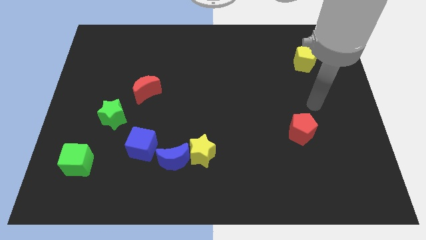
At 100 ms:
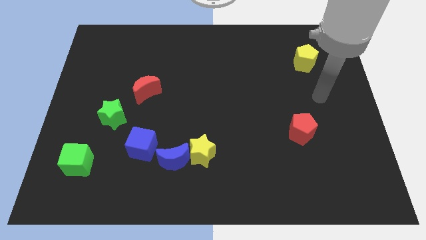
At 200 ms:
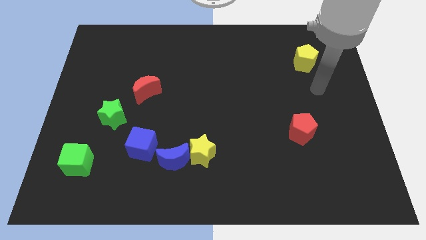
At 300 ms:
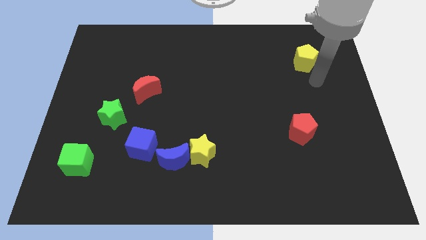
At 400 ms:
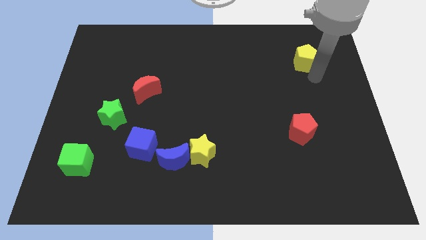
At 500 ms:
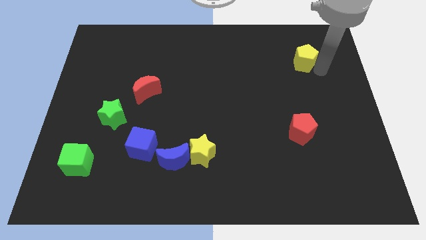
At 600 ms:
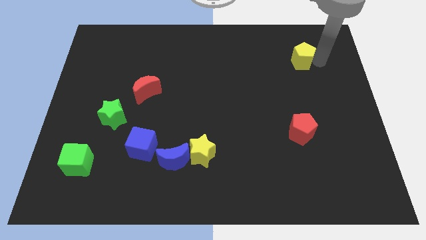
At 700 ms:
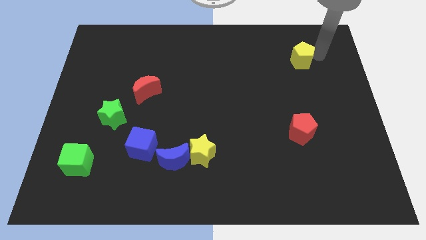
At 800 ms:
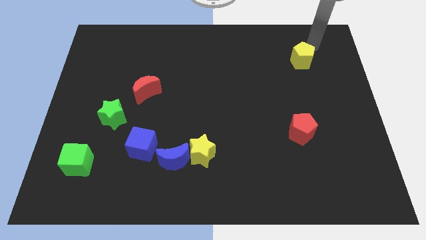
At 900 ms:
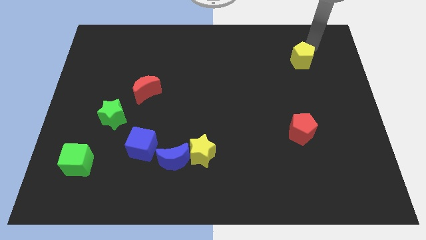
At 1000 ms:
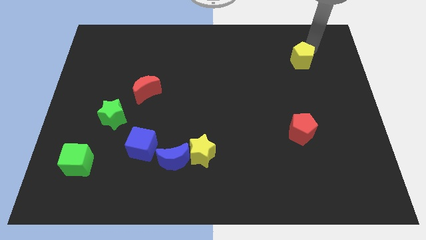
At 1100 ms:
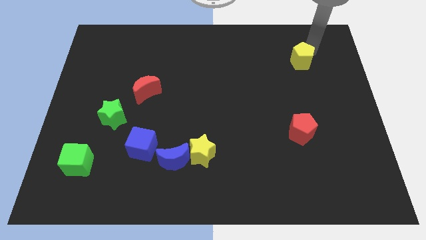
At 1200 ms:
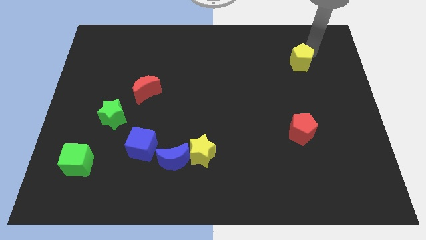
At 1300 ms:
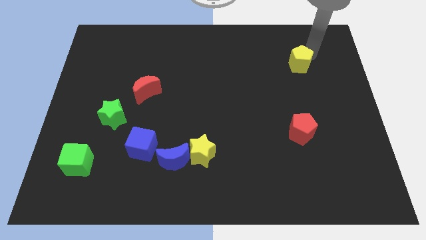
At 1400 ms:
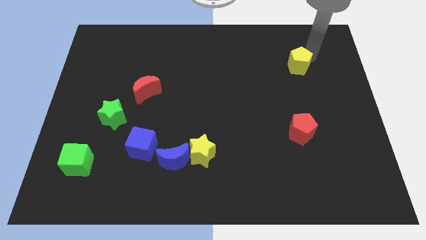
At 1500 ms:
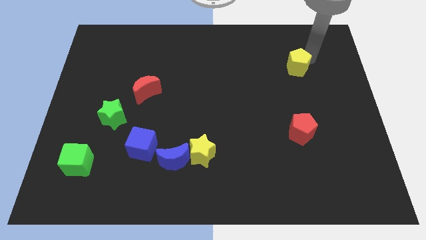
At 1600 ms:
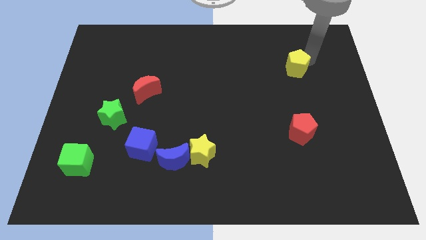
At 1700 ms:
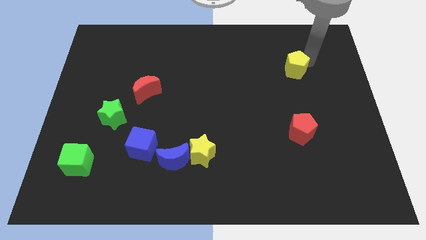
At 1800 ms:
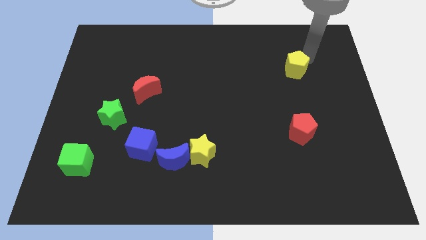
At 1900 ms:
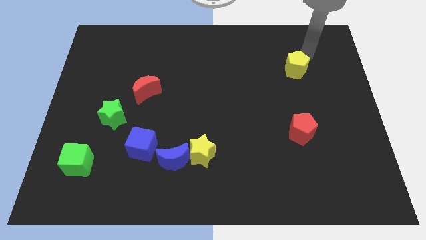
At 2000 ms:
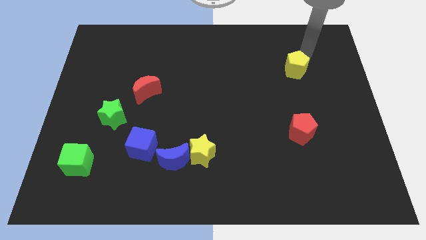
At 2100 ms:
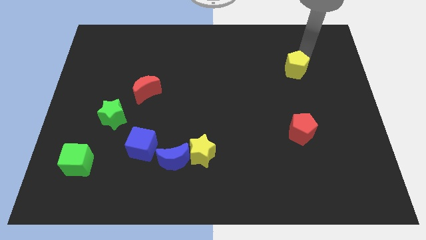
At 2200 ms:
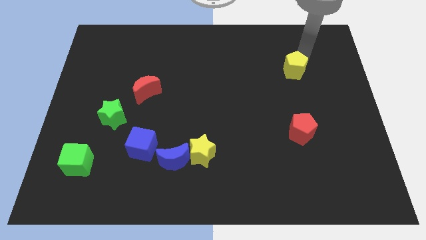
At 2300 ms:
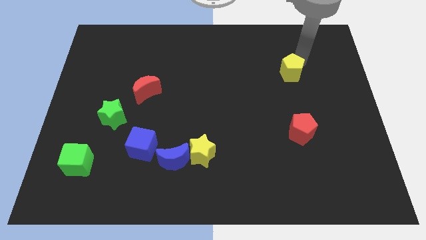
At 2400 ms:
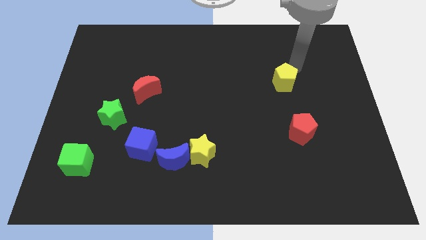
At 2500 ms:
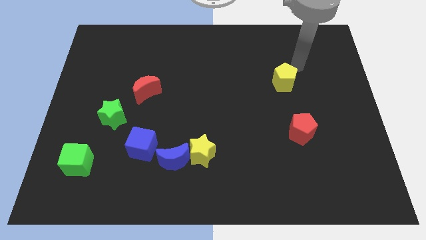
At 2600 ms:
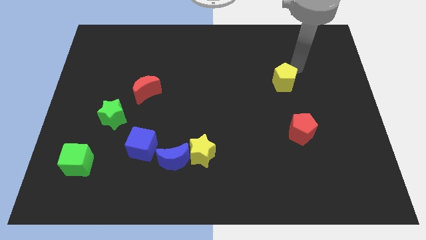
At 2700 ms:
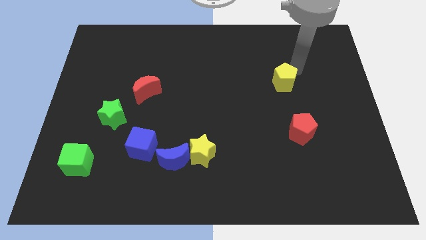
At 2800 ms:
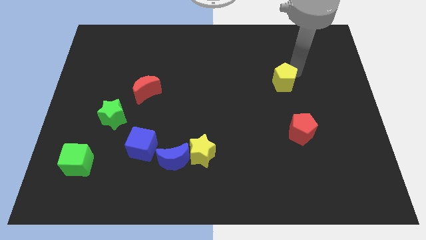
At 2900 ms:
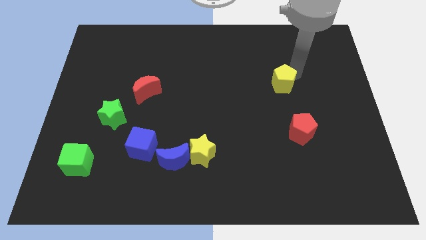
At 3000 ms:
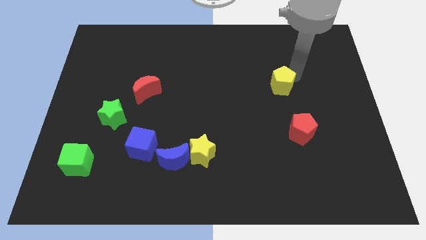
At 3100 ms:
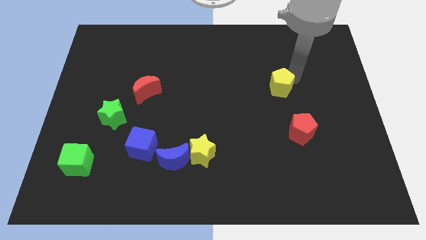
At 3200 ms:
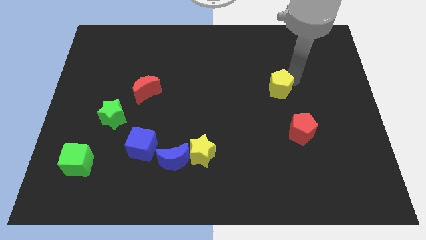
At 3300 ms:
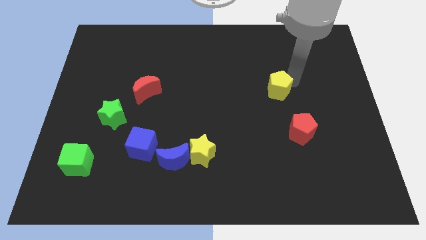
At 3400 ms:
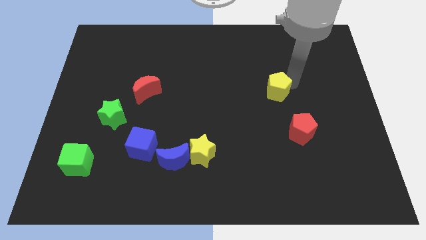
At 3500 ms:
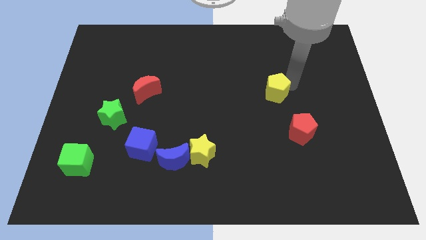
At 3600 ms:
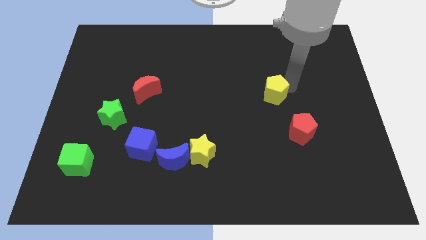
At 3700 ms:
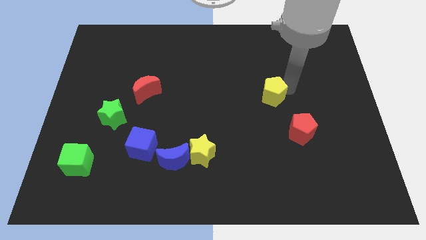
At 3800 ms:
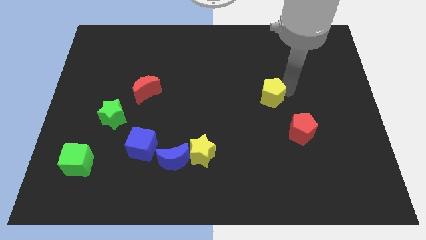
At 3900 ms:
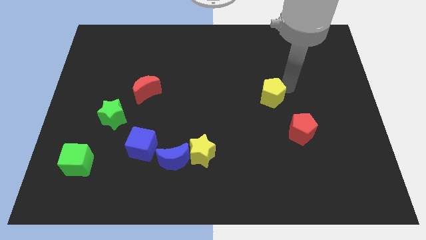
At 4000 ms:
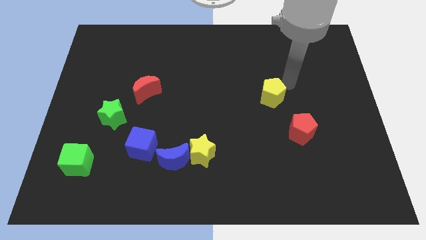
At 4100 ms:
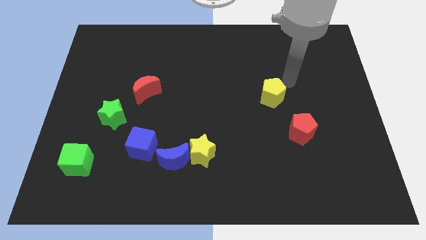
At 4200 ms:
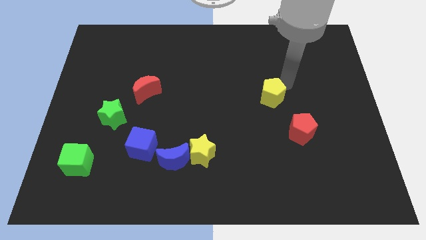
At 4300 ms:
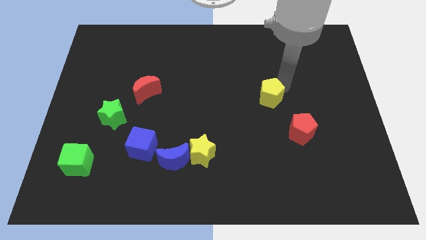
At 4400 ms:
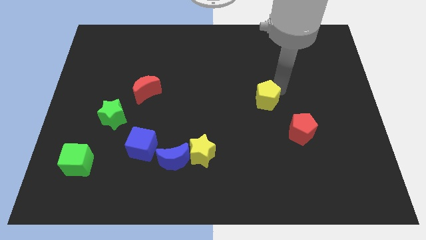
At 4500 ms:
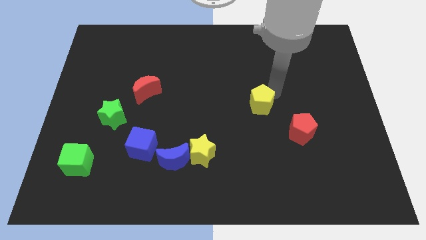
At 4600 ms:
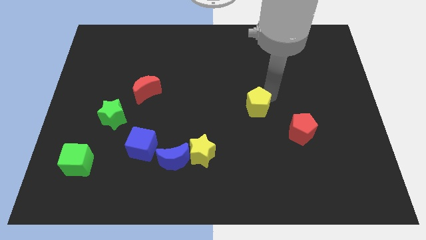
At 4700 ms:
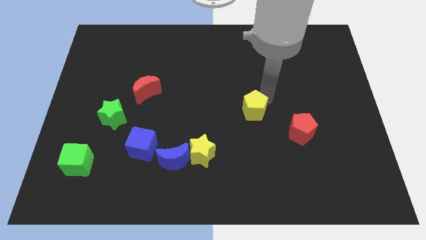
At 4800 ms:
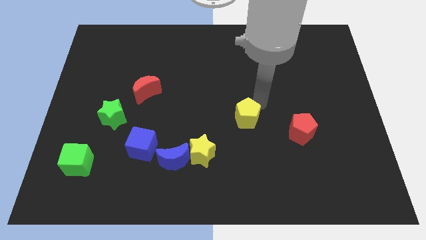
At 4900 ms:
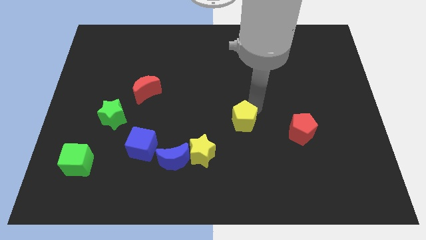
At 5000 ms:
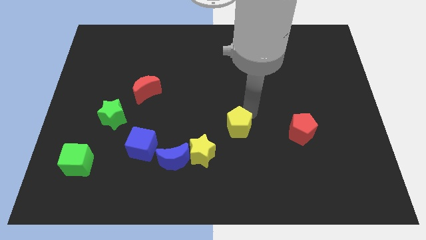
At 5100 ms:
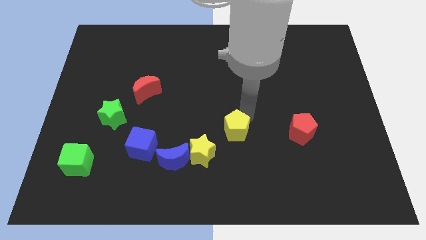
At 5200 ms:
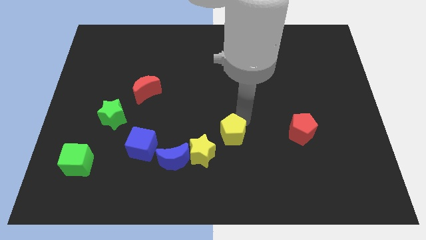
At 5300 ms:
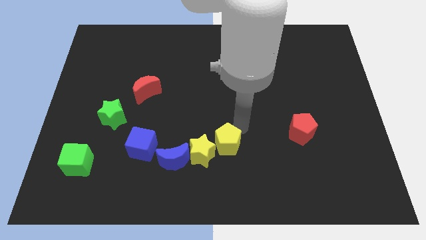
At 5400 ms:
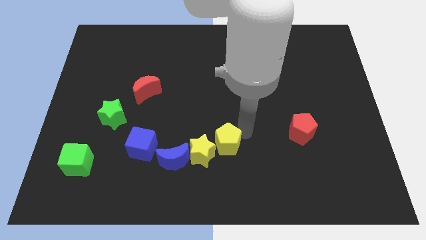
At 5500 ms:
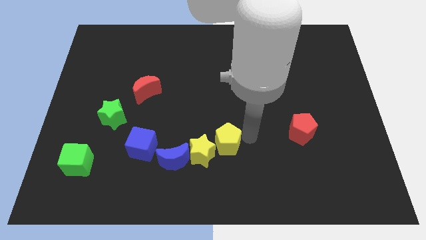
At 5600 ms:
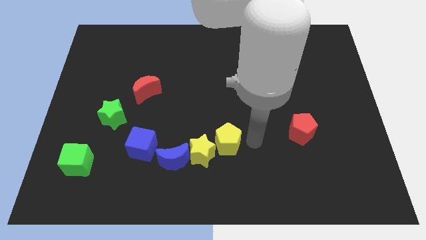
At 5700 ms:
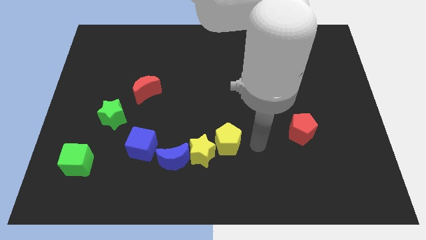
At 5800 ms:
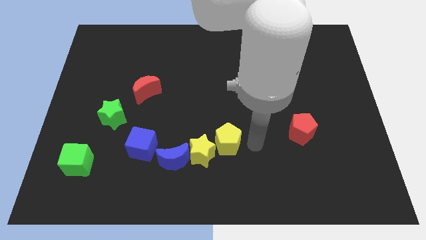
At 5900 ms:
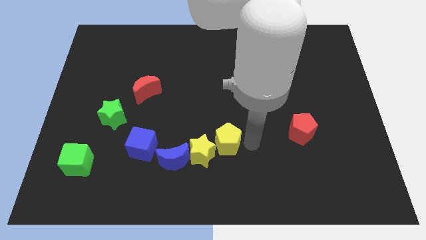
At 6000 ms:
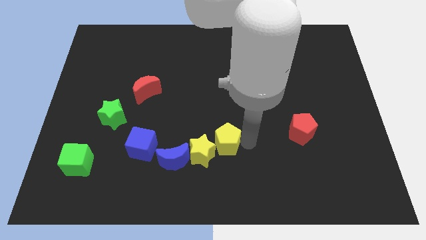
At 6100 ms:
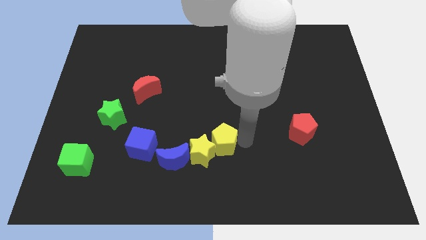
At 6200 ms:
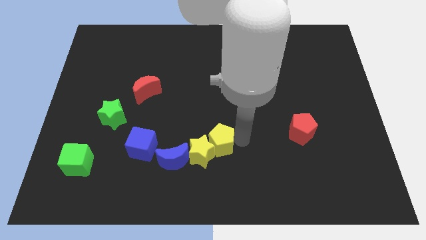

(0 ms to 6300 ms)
put the yellow pentagon diagonally up and to the right of the blue moon

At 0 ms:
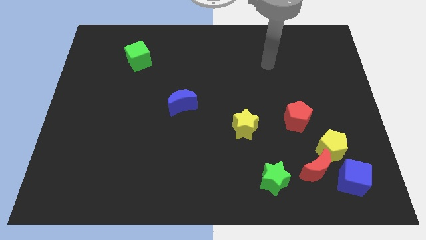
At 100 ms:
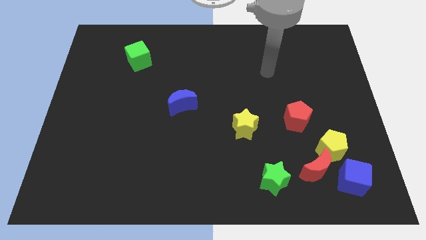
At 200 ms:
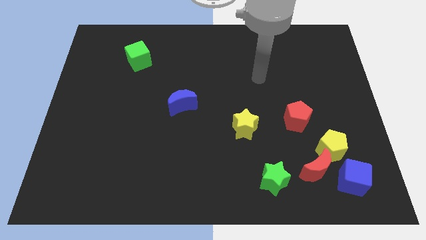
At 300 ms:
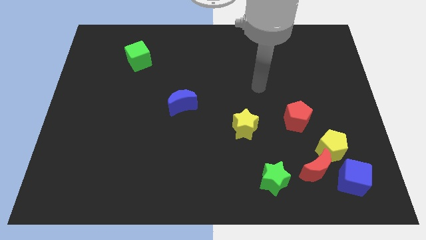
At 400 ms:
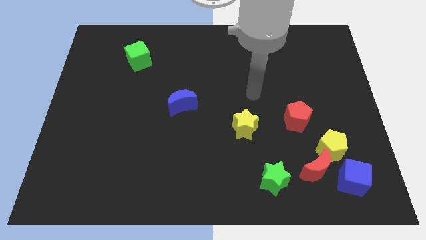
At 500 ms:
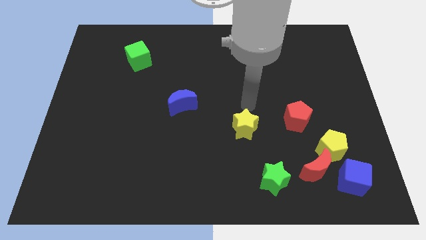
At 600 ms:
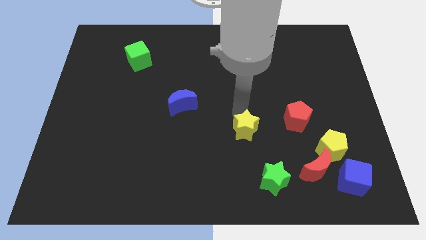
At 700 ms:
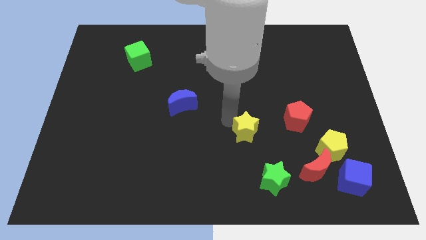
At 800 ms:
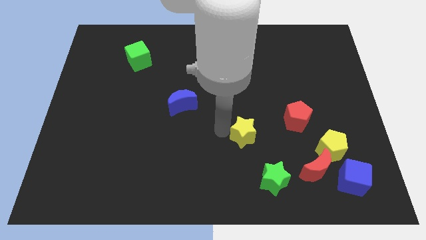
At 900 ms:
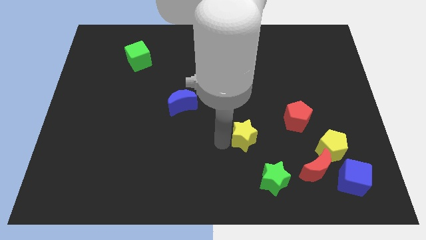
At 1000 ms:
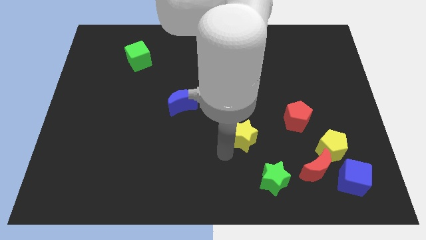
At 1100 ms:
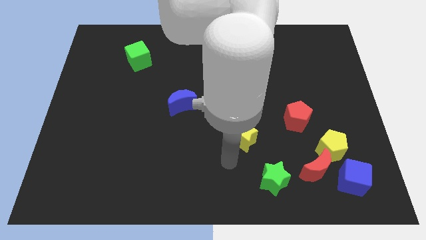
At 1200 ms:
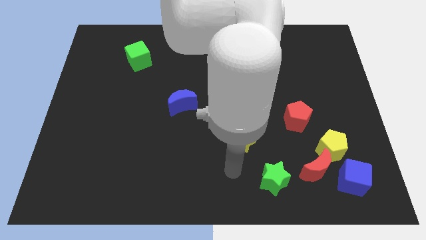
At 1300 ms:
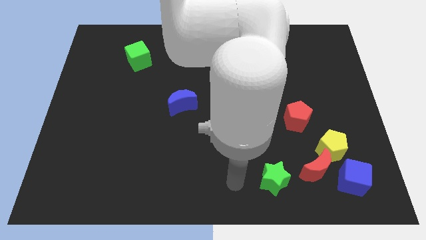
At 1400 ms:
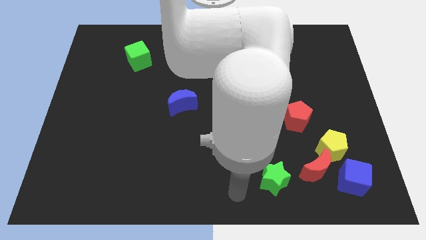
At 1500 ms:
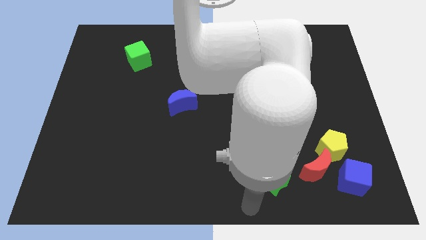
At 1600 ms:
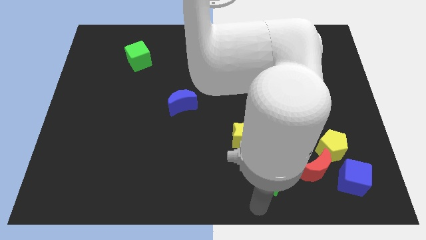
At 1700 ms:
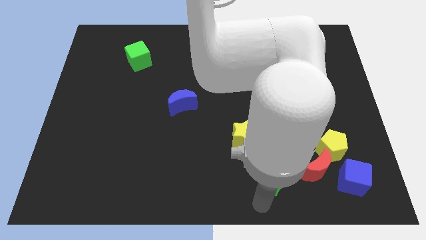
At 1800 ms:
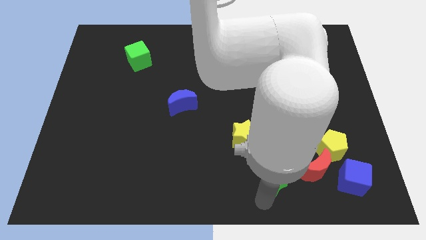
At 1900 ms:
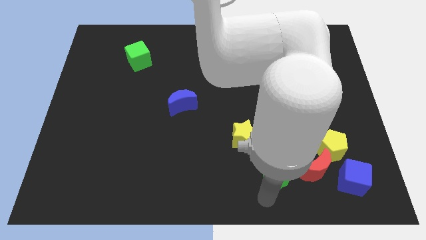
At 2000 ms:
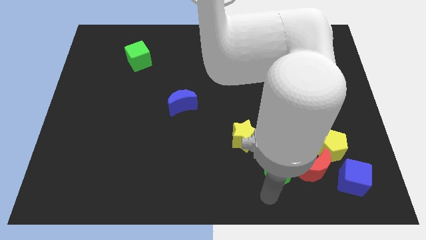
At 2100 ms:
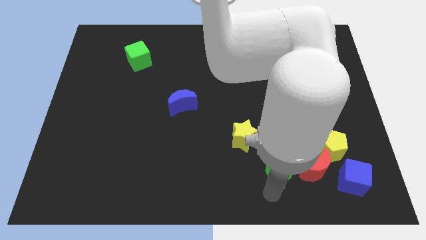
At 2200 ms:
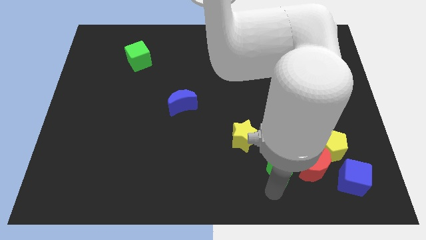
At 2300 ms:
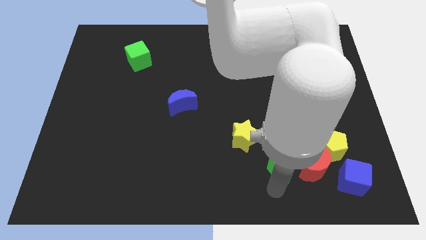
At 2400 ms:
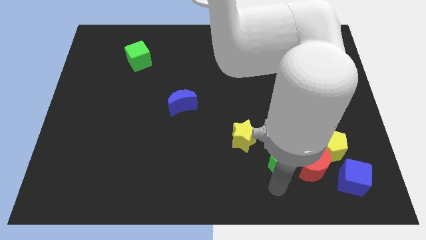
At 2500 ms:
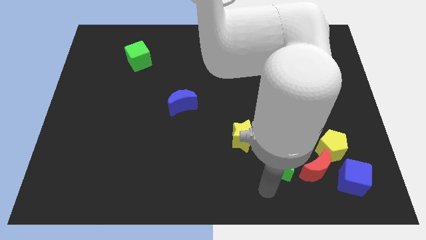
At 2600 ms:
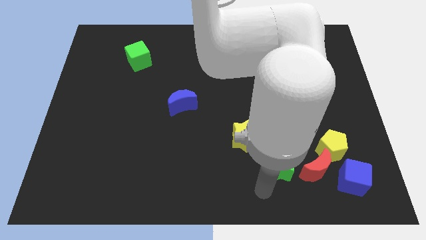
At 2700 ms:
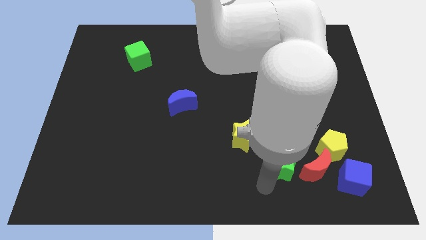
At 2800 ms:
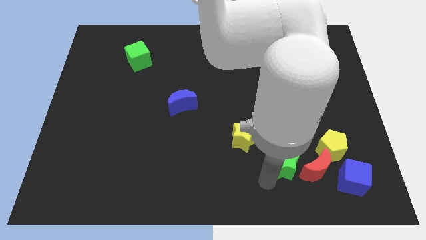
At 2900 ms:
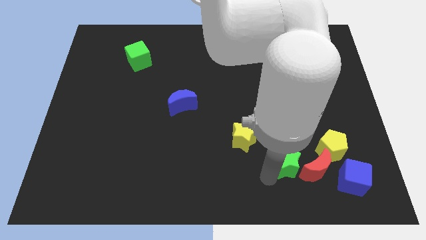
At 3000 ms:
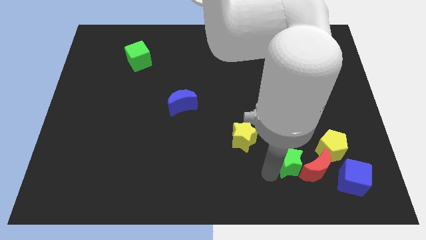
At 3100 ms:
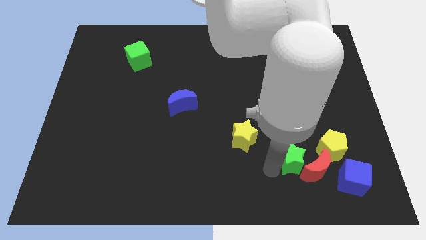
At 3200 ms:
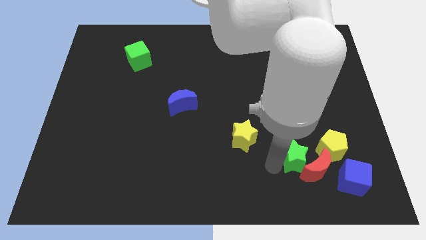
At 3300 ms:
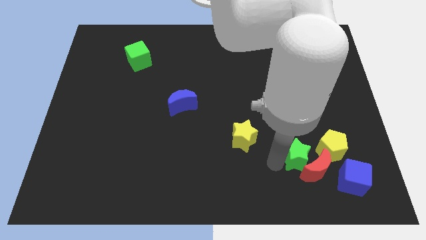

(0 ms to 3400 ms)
put the green star to the right side of the yellow star
